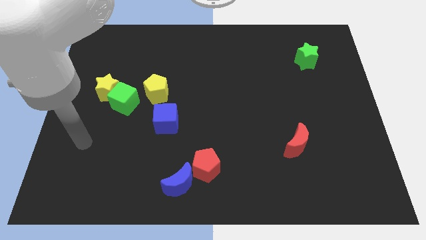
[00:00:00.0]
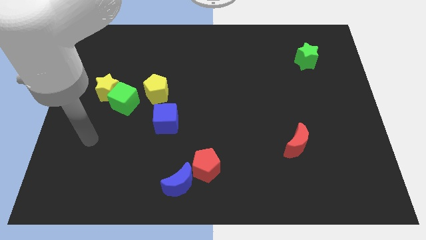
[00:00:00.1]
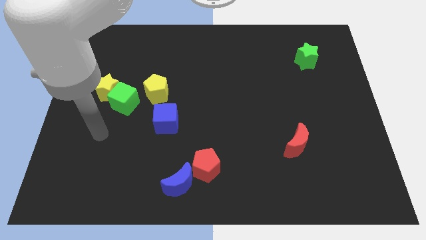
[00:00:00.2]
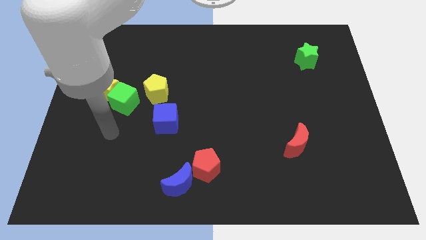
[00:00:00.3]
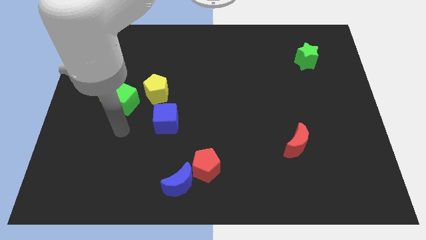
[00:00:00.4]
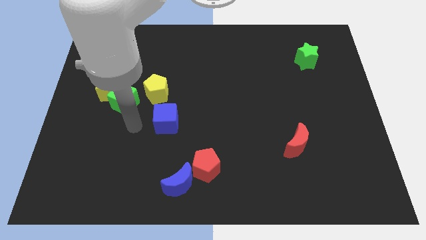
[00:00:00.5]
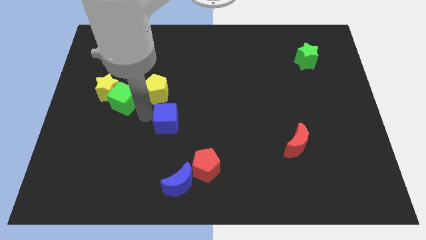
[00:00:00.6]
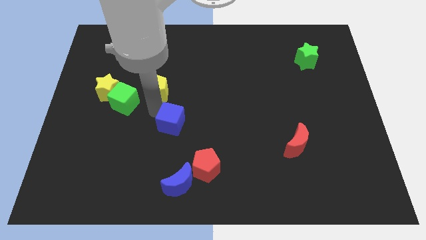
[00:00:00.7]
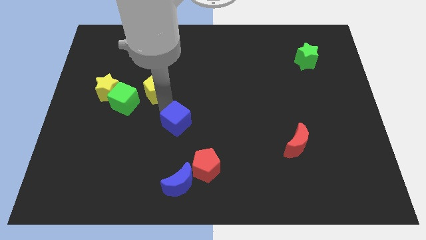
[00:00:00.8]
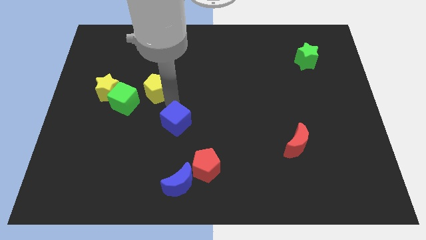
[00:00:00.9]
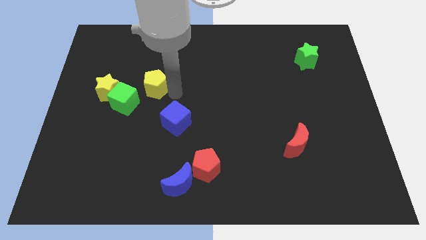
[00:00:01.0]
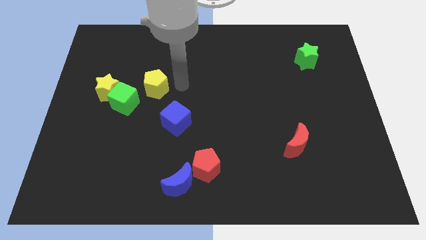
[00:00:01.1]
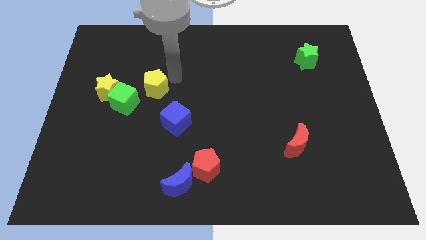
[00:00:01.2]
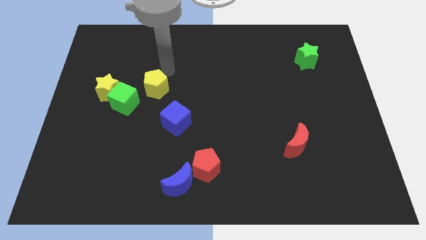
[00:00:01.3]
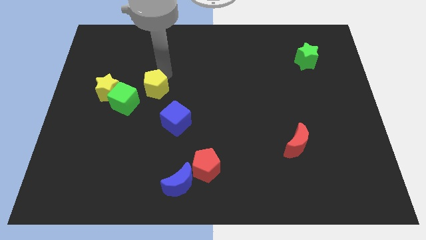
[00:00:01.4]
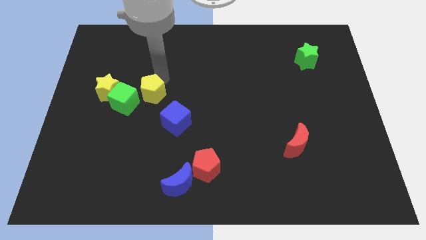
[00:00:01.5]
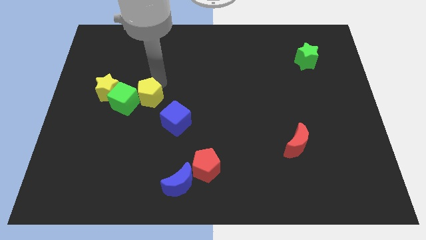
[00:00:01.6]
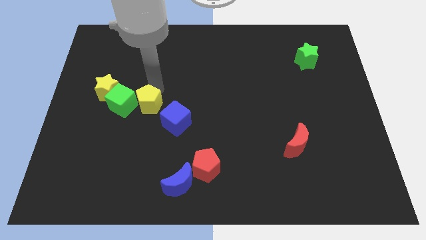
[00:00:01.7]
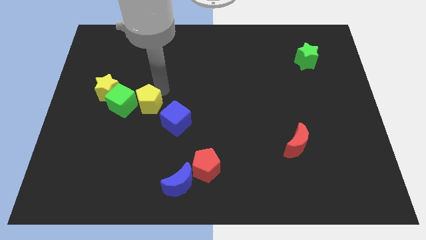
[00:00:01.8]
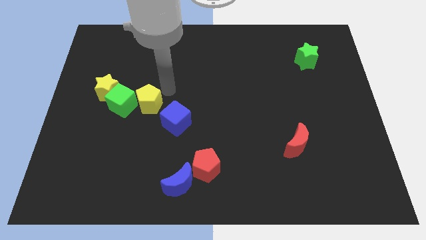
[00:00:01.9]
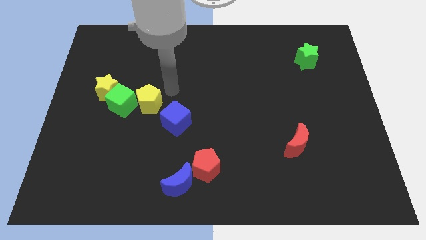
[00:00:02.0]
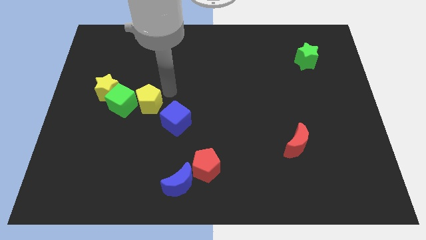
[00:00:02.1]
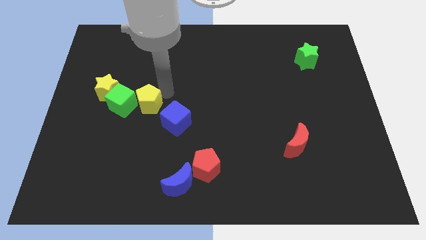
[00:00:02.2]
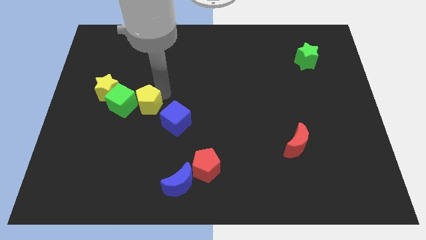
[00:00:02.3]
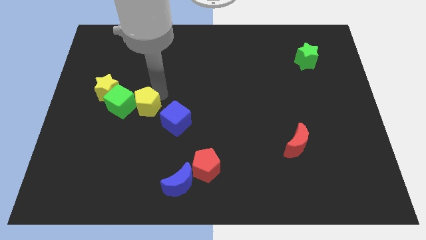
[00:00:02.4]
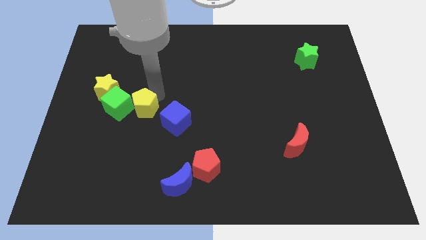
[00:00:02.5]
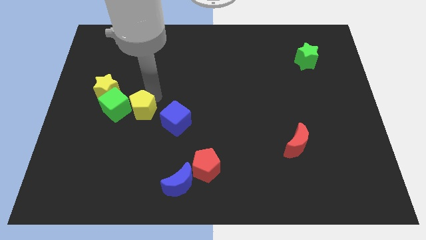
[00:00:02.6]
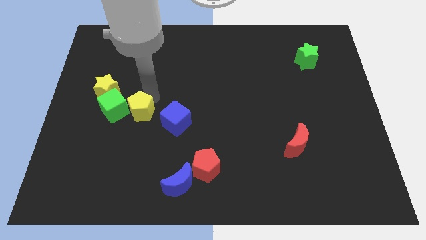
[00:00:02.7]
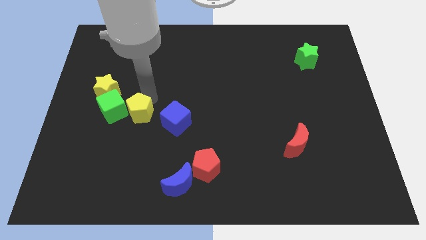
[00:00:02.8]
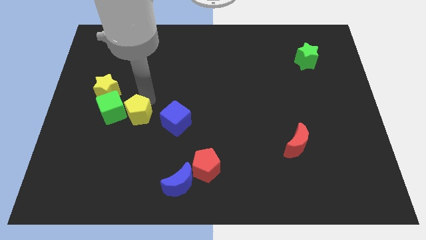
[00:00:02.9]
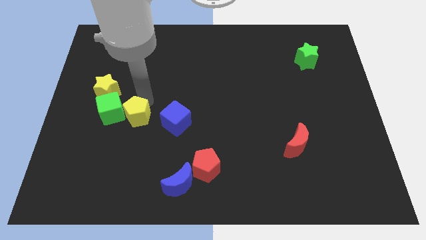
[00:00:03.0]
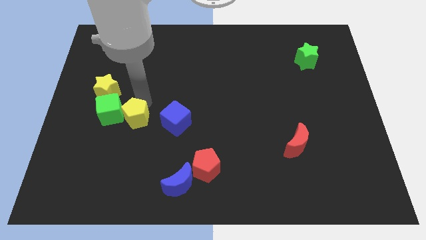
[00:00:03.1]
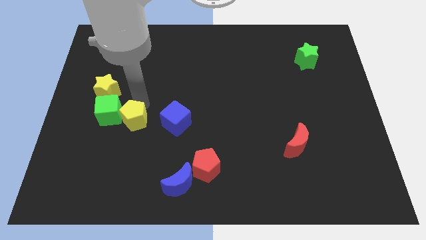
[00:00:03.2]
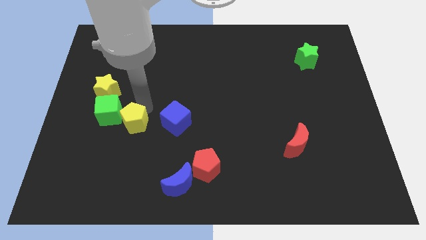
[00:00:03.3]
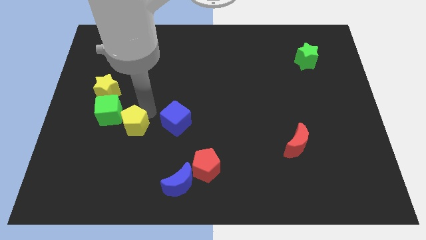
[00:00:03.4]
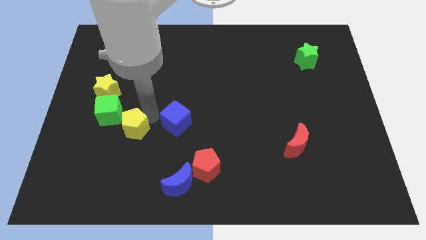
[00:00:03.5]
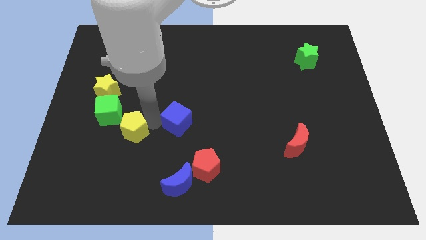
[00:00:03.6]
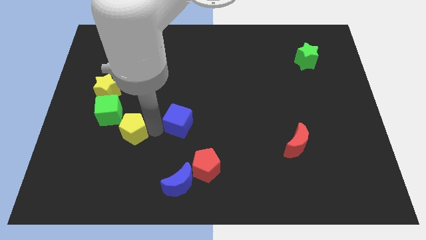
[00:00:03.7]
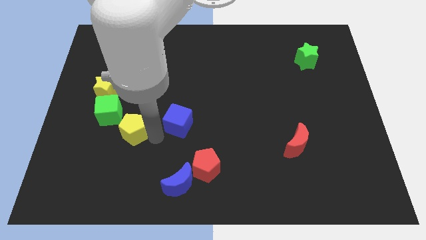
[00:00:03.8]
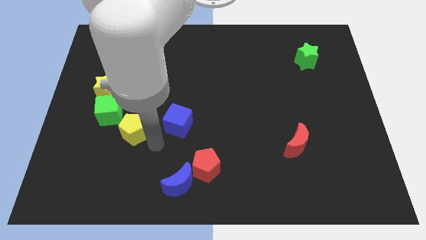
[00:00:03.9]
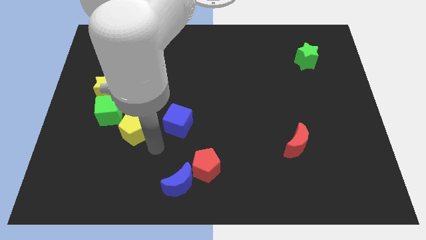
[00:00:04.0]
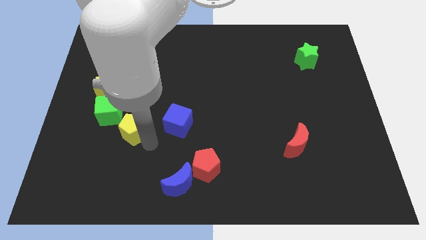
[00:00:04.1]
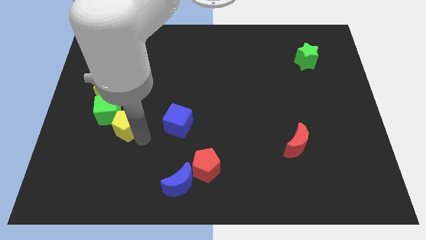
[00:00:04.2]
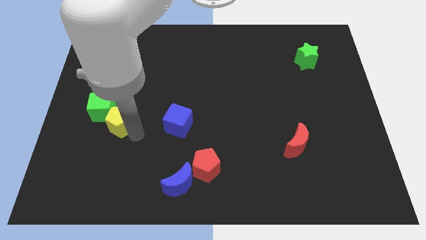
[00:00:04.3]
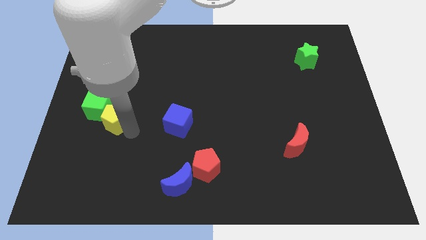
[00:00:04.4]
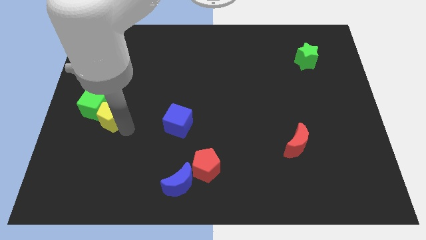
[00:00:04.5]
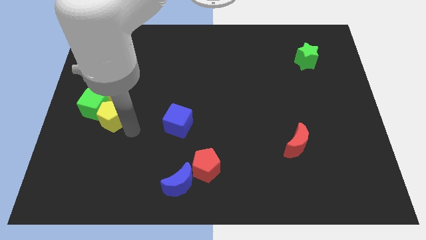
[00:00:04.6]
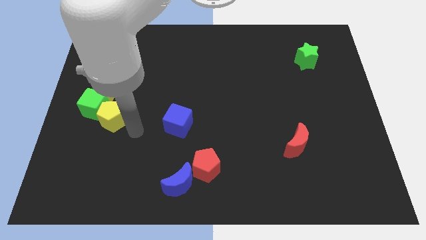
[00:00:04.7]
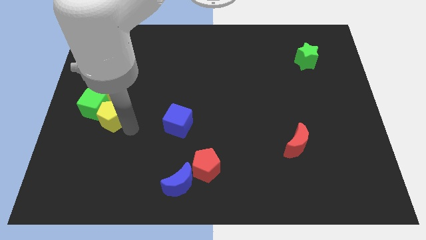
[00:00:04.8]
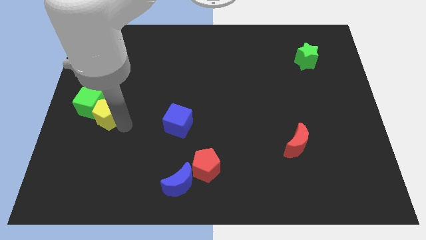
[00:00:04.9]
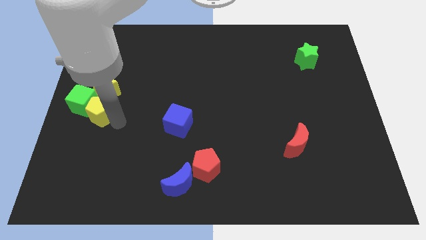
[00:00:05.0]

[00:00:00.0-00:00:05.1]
move the yellow pentagon to the left side of the board

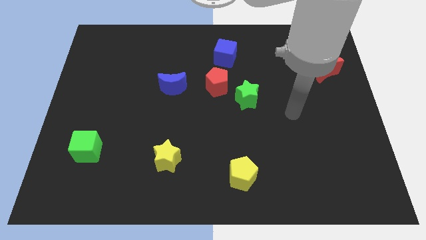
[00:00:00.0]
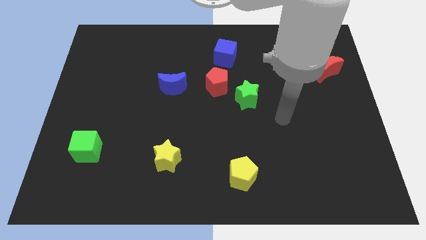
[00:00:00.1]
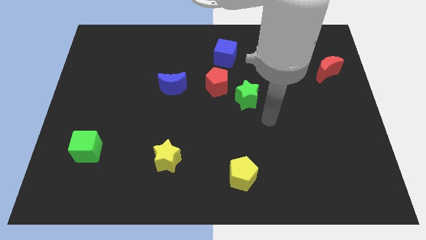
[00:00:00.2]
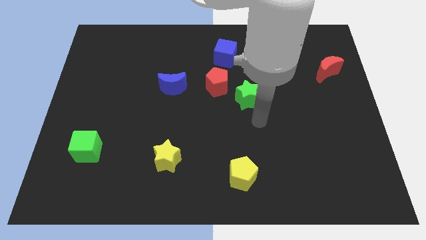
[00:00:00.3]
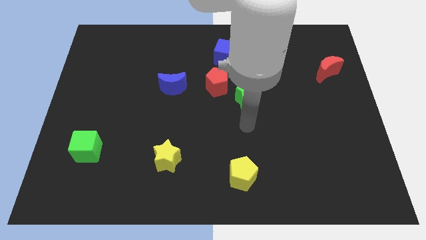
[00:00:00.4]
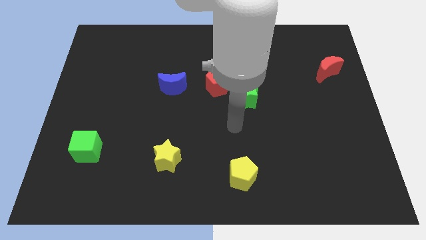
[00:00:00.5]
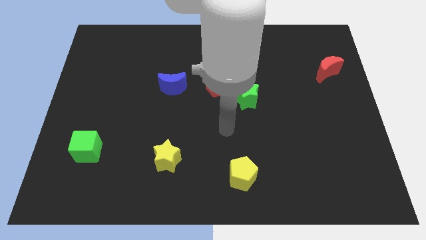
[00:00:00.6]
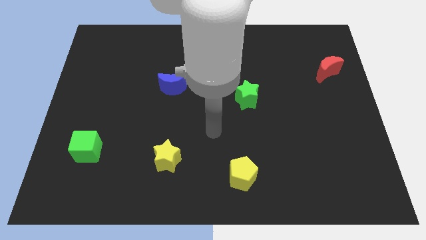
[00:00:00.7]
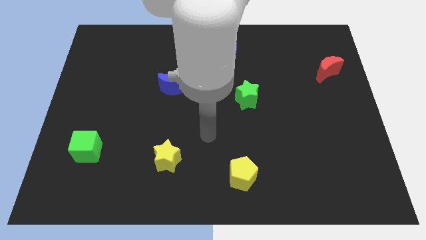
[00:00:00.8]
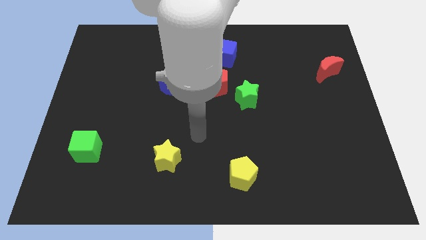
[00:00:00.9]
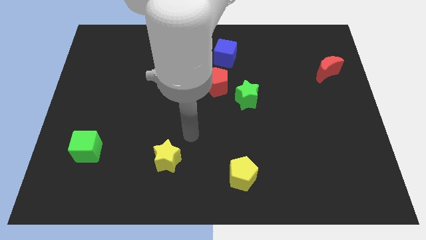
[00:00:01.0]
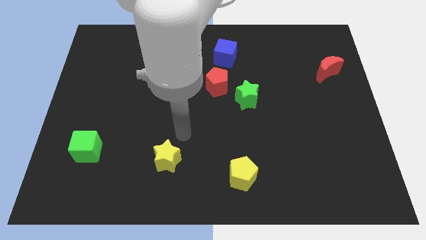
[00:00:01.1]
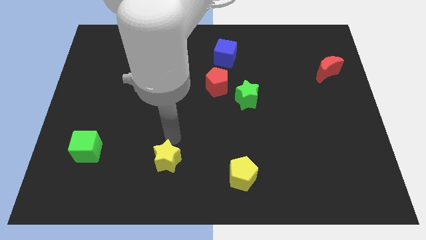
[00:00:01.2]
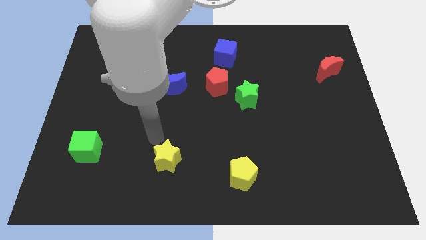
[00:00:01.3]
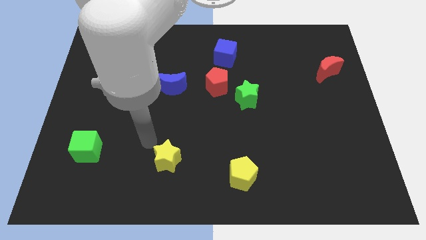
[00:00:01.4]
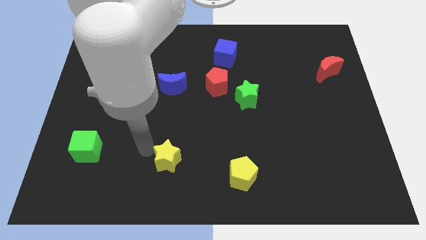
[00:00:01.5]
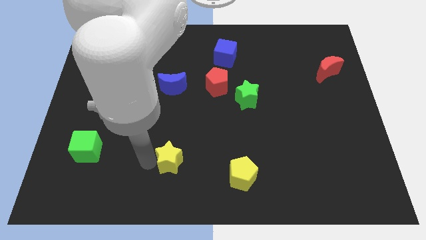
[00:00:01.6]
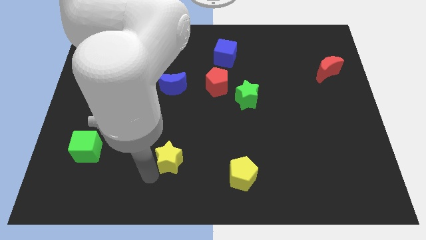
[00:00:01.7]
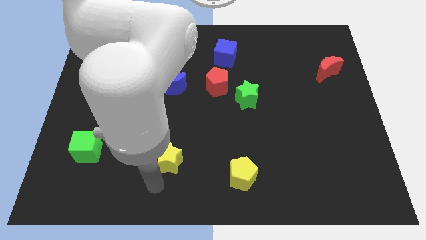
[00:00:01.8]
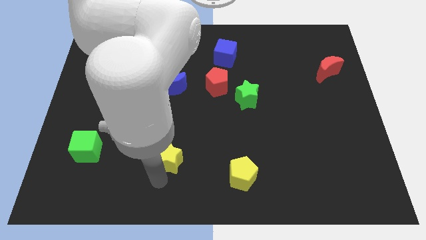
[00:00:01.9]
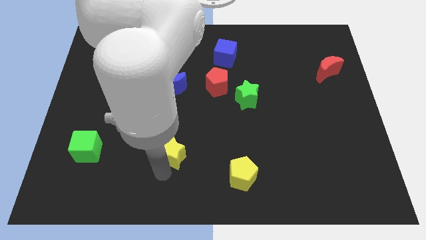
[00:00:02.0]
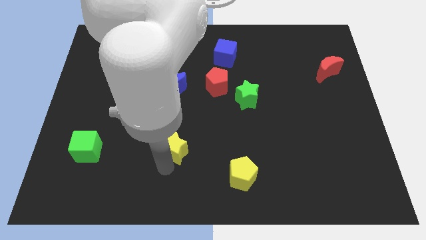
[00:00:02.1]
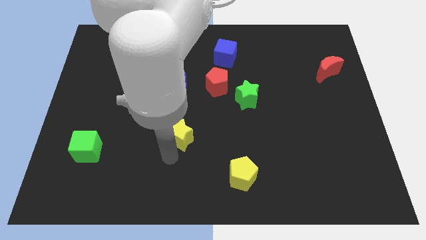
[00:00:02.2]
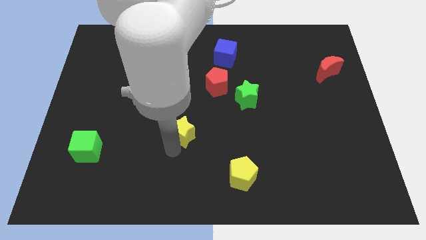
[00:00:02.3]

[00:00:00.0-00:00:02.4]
put the yellow star to the middle
